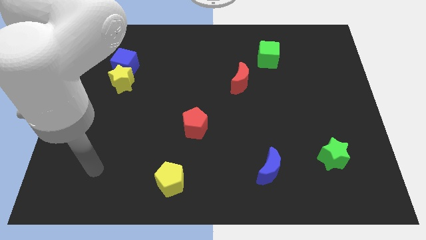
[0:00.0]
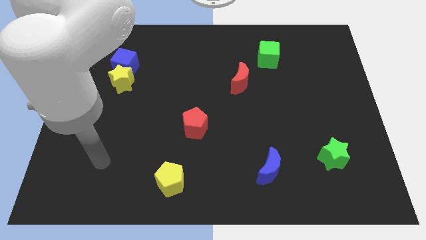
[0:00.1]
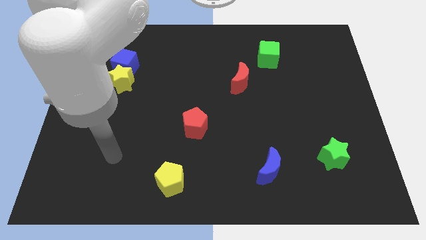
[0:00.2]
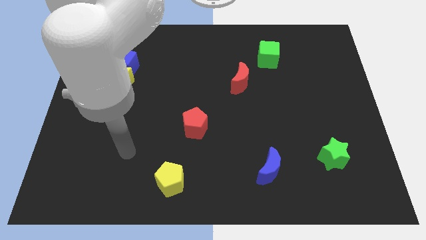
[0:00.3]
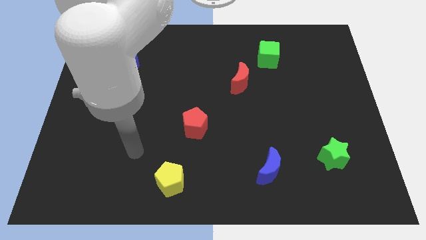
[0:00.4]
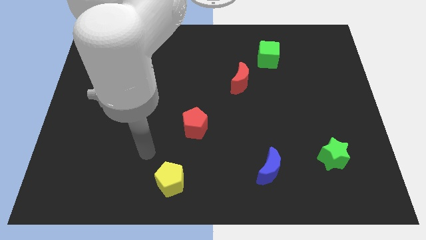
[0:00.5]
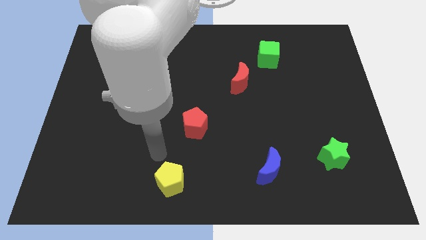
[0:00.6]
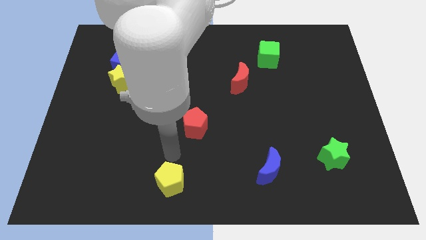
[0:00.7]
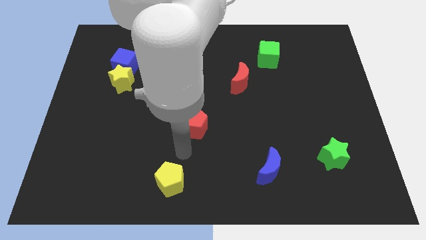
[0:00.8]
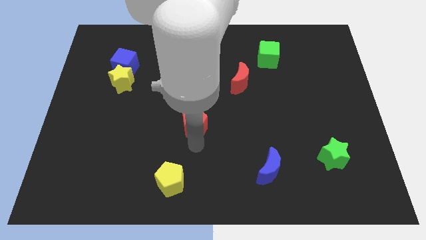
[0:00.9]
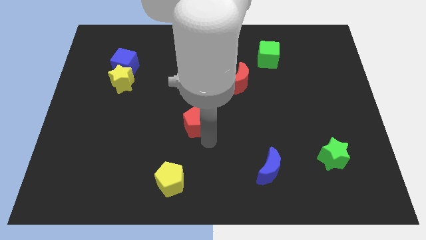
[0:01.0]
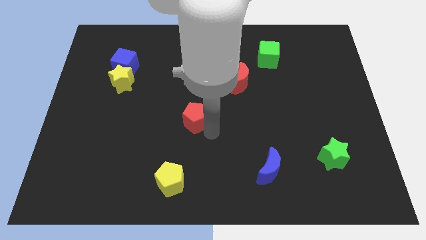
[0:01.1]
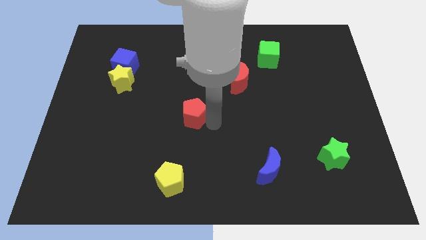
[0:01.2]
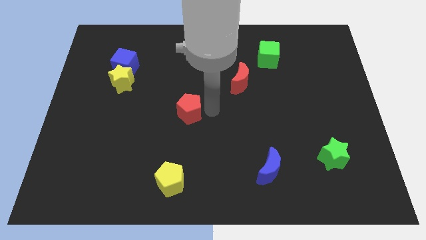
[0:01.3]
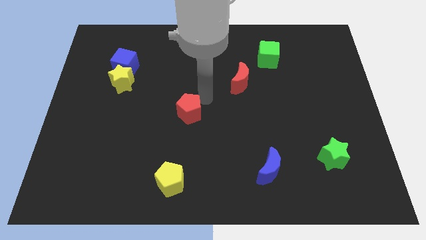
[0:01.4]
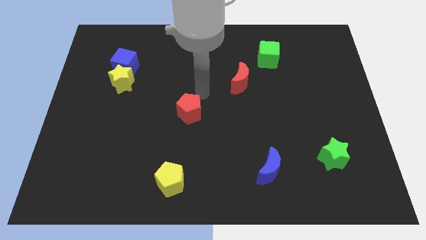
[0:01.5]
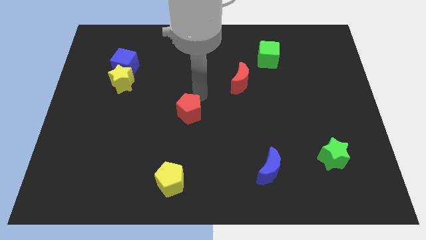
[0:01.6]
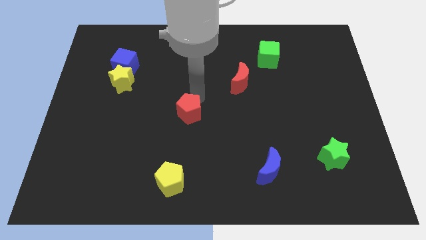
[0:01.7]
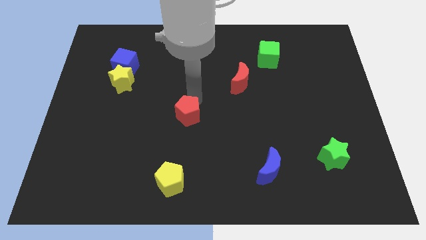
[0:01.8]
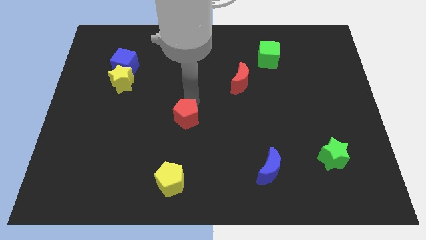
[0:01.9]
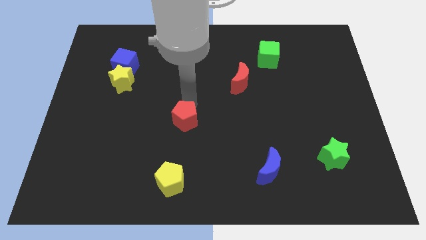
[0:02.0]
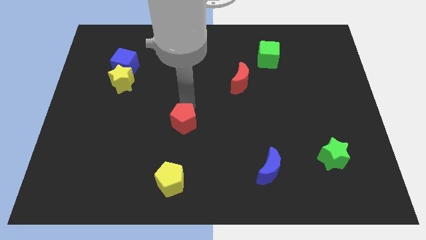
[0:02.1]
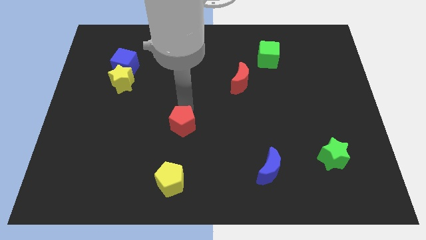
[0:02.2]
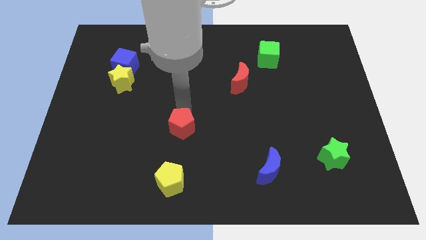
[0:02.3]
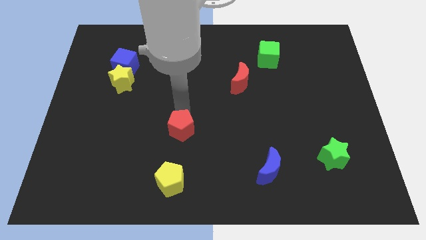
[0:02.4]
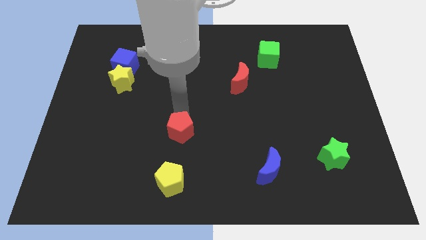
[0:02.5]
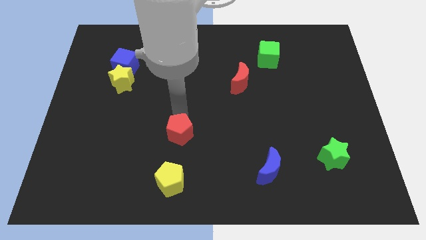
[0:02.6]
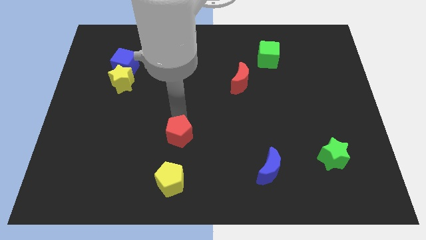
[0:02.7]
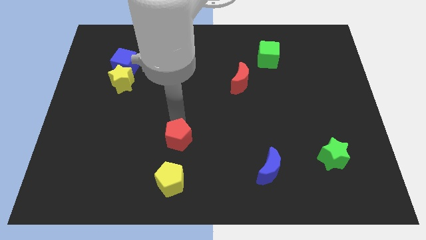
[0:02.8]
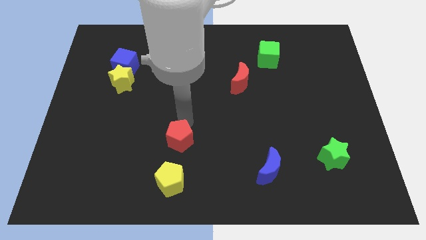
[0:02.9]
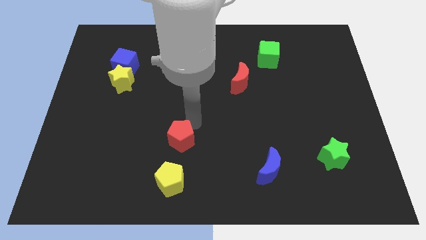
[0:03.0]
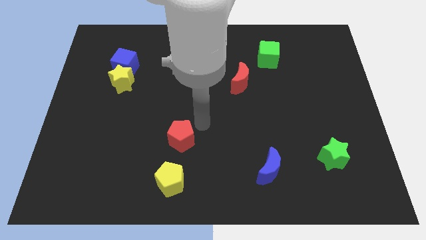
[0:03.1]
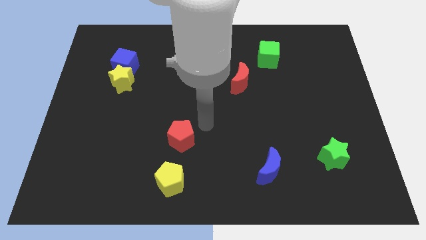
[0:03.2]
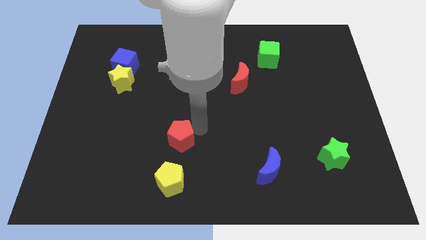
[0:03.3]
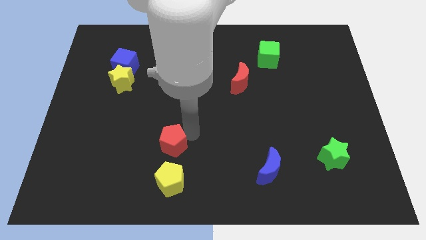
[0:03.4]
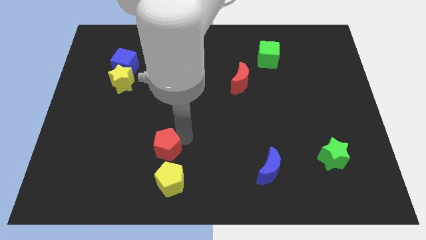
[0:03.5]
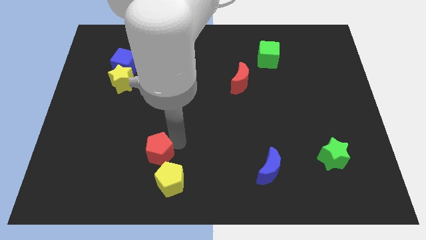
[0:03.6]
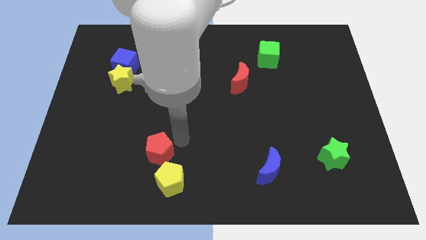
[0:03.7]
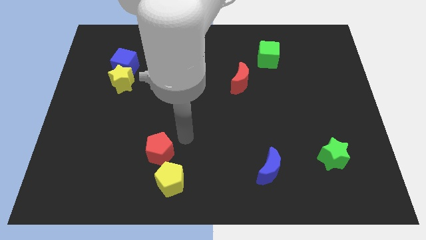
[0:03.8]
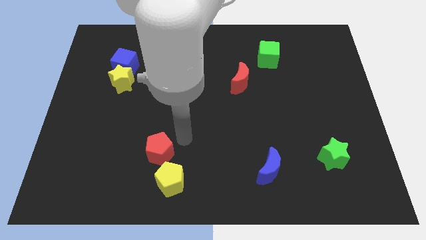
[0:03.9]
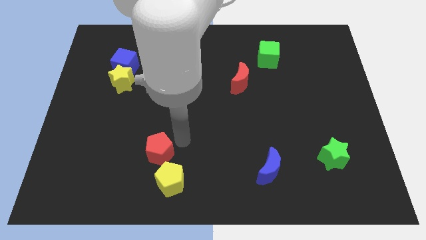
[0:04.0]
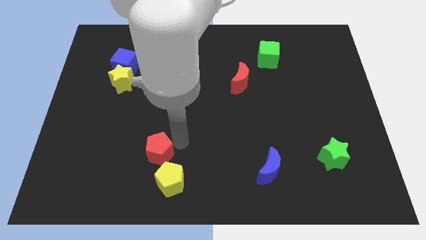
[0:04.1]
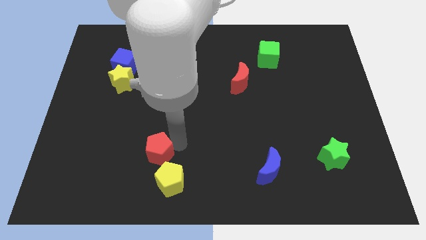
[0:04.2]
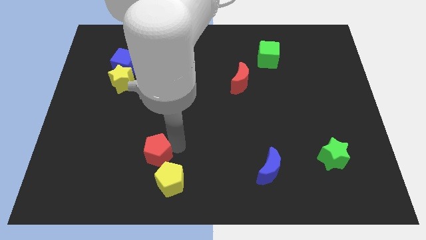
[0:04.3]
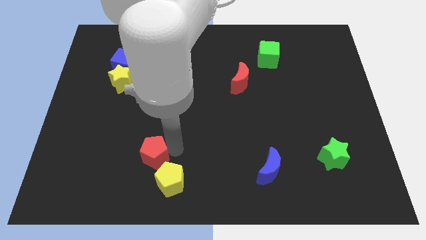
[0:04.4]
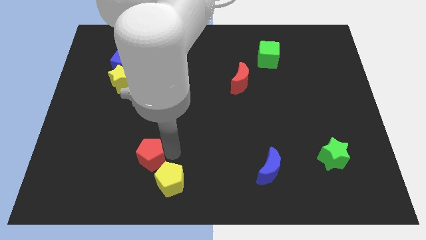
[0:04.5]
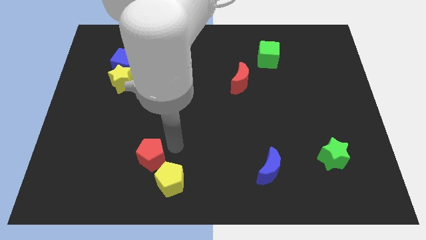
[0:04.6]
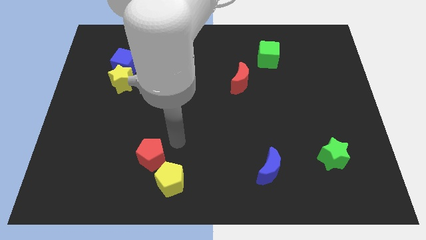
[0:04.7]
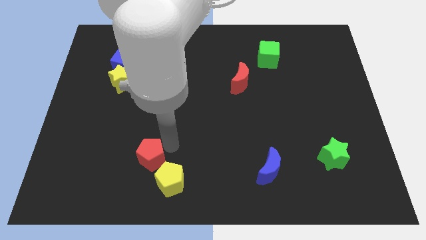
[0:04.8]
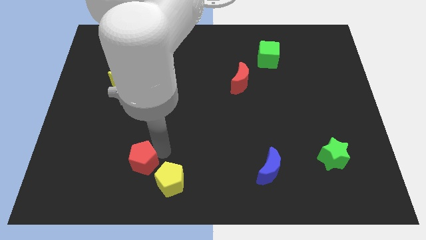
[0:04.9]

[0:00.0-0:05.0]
push the red pentagon to the left of the yellow pentagon

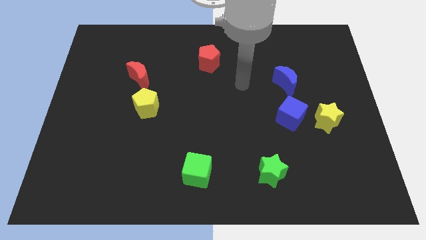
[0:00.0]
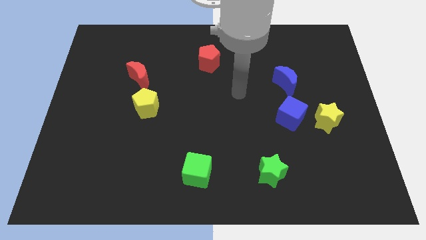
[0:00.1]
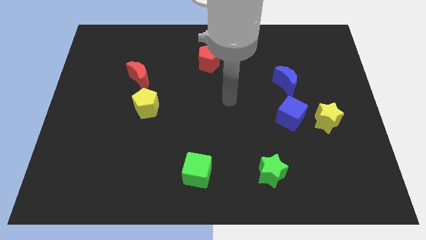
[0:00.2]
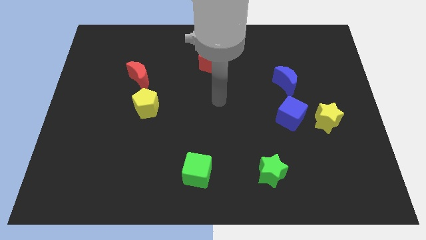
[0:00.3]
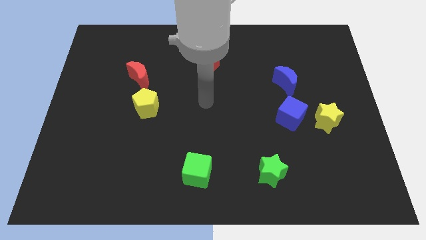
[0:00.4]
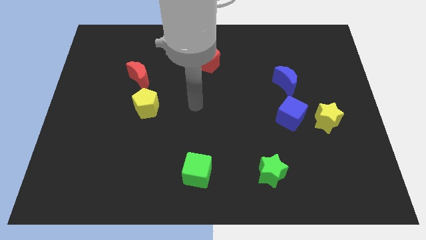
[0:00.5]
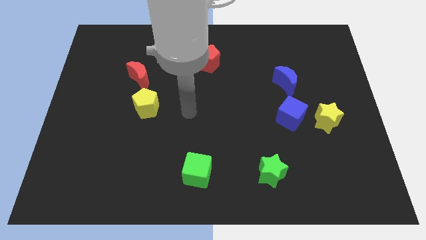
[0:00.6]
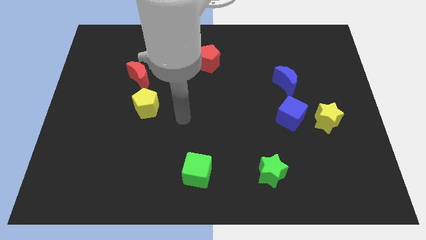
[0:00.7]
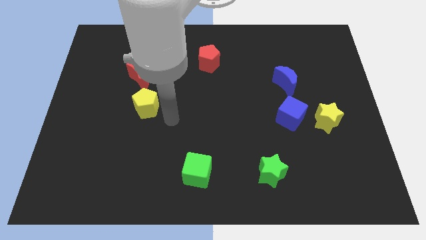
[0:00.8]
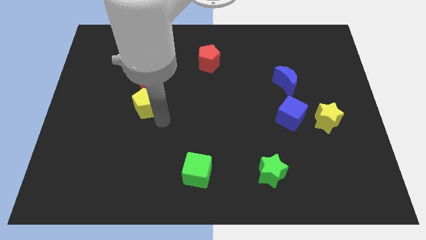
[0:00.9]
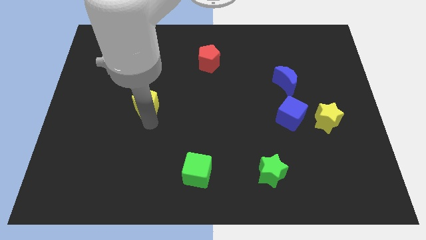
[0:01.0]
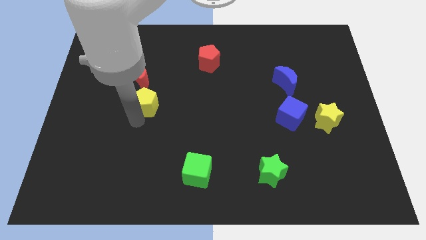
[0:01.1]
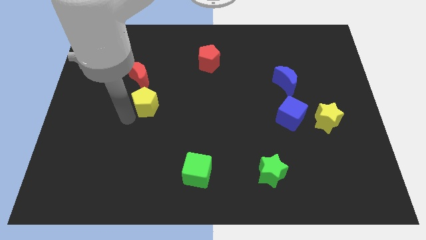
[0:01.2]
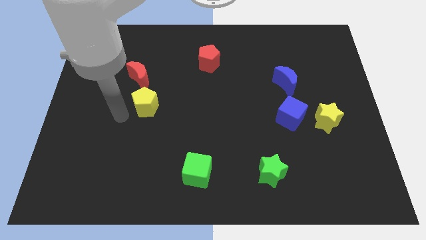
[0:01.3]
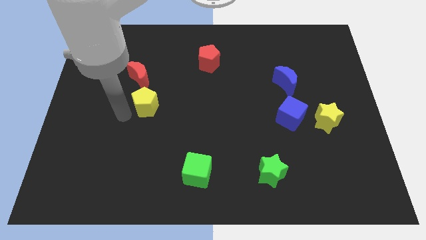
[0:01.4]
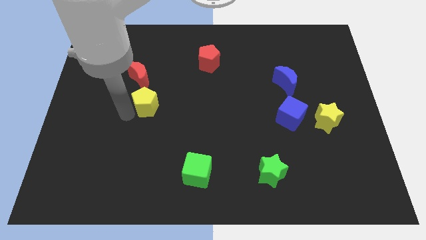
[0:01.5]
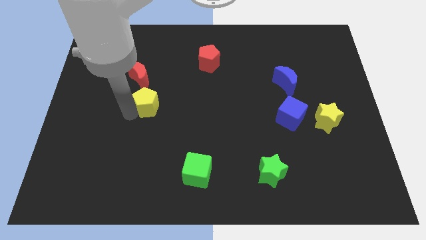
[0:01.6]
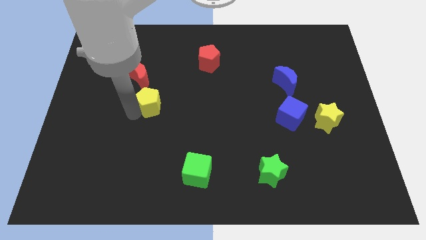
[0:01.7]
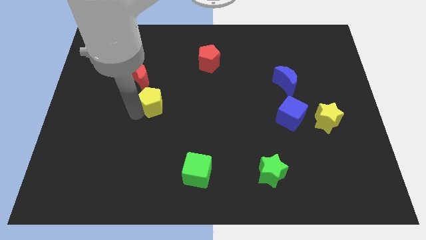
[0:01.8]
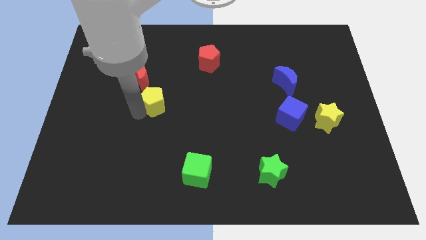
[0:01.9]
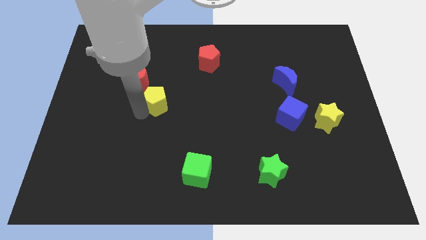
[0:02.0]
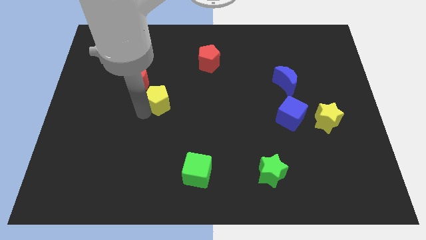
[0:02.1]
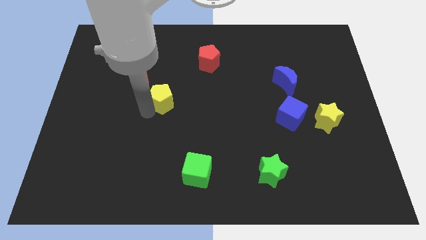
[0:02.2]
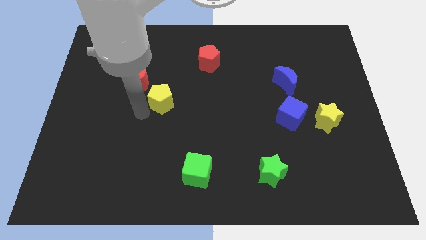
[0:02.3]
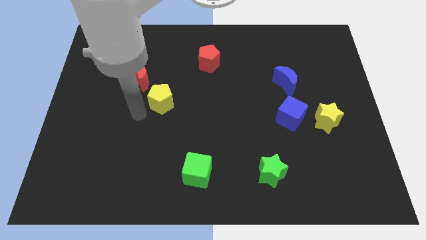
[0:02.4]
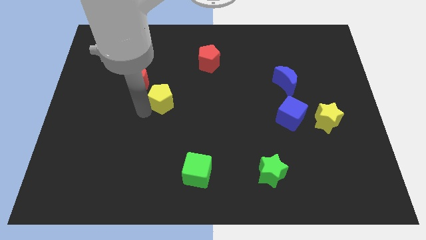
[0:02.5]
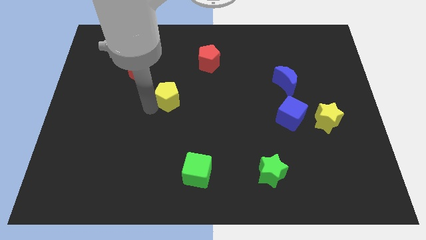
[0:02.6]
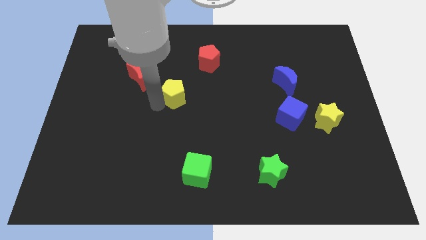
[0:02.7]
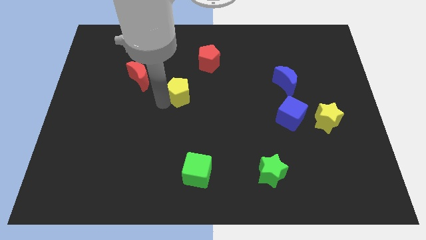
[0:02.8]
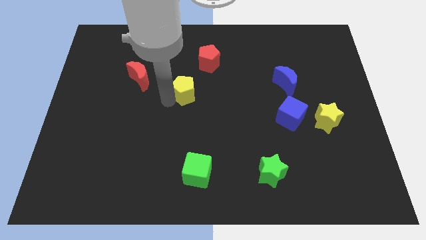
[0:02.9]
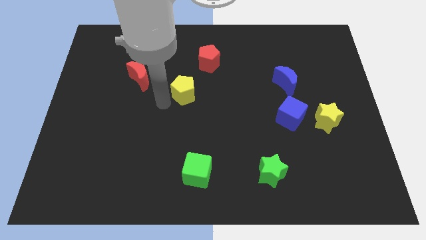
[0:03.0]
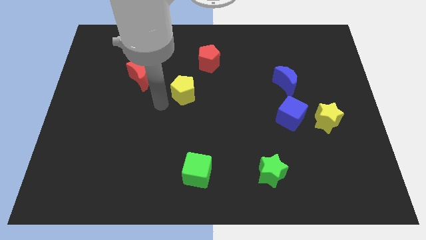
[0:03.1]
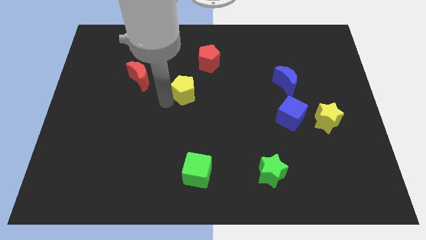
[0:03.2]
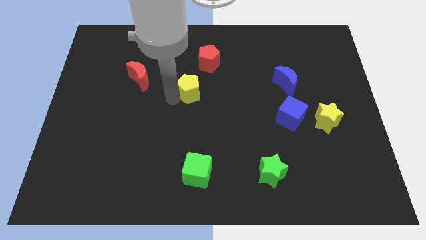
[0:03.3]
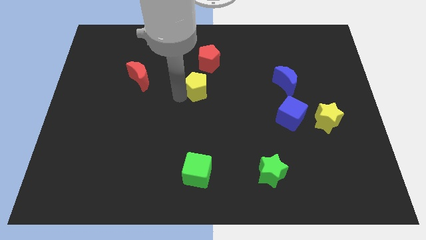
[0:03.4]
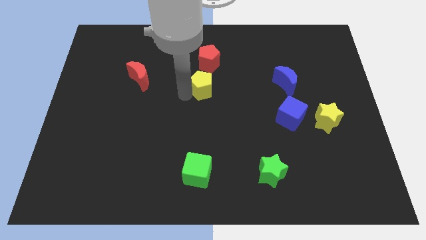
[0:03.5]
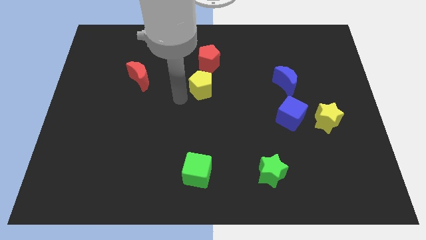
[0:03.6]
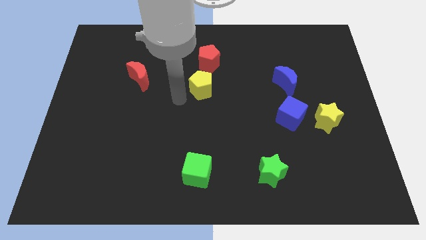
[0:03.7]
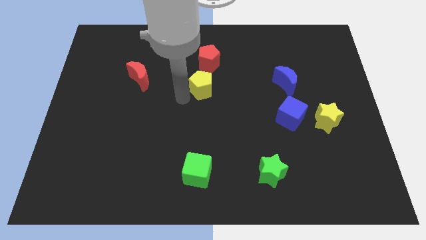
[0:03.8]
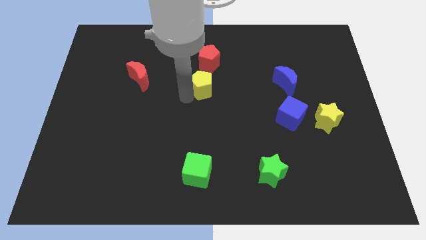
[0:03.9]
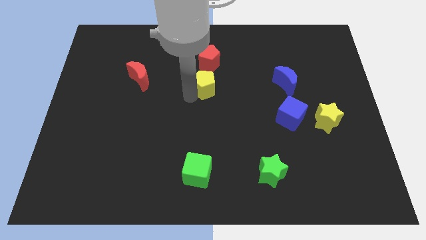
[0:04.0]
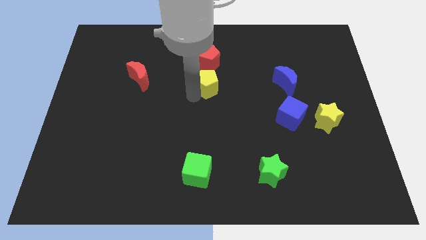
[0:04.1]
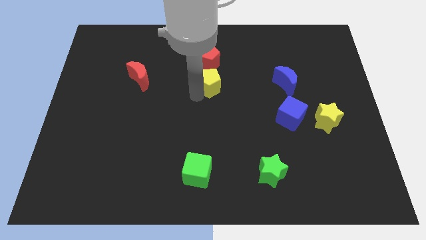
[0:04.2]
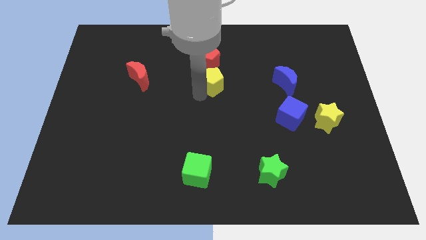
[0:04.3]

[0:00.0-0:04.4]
slide the yellow pentagon diagonally down and to the right of the red pentagon
